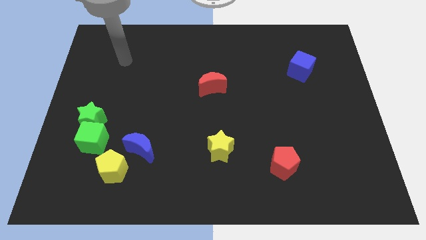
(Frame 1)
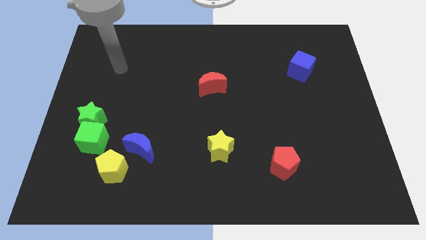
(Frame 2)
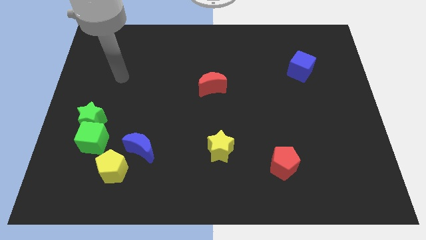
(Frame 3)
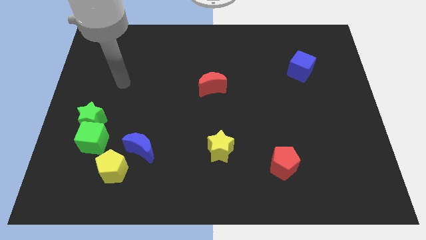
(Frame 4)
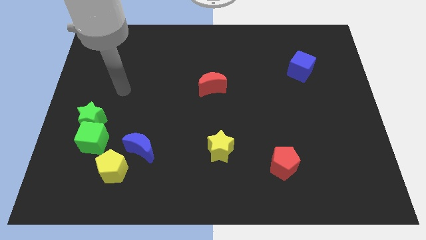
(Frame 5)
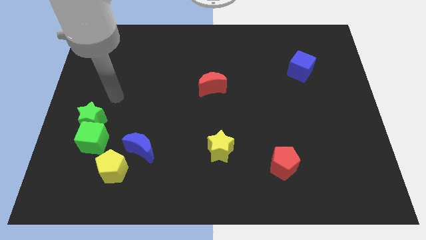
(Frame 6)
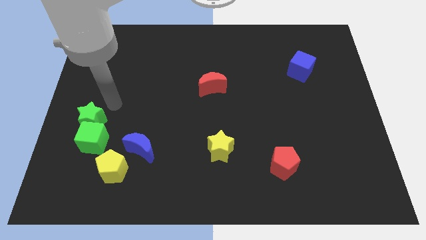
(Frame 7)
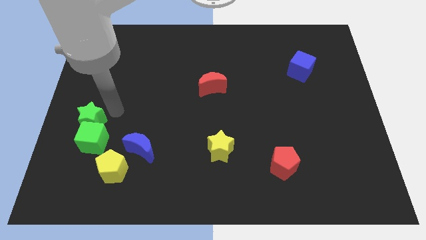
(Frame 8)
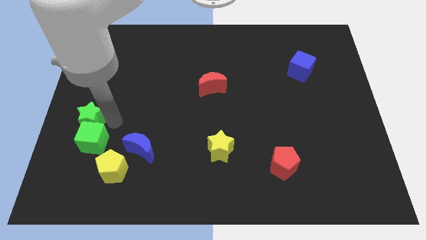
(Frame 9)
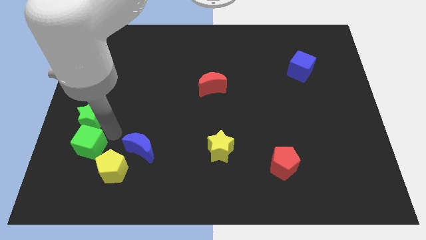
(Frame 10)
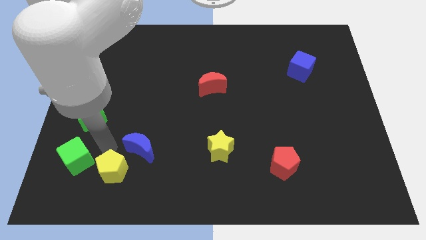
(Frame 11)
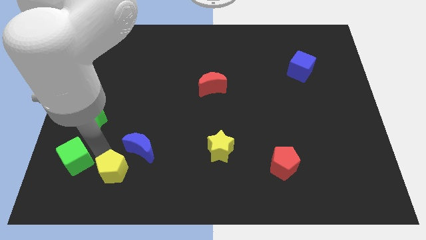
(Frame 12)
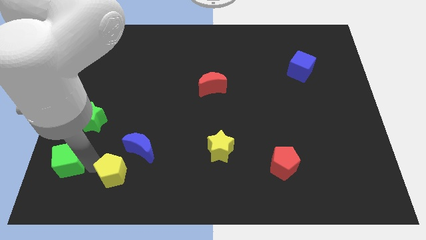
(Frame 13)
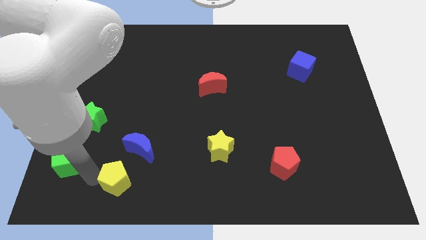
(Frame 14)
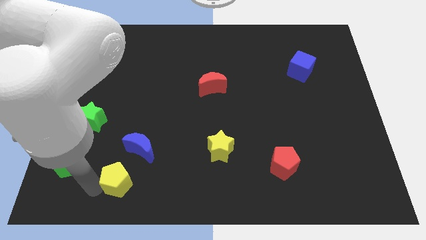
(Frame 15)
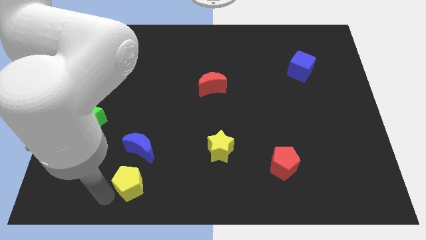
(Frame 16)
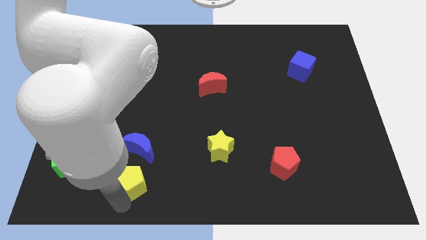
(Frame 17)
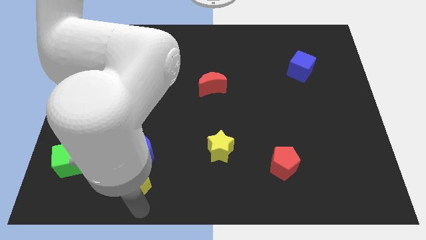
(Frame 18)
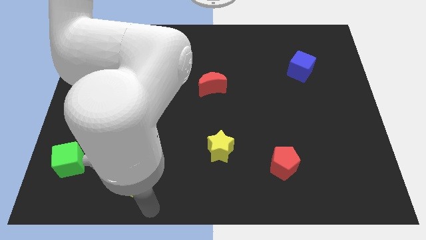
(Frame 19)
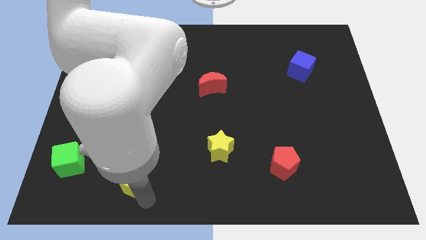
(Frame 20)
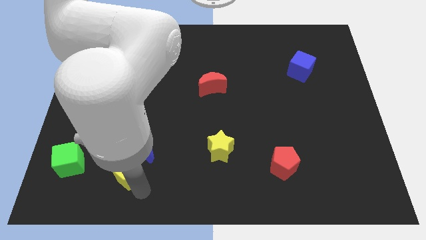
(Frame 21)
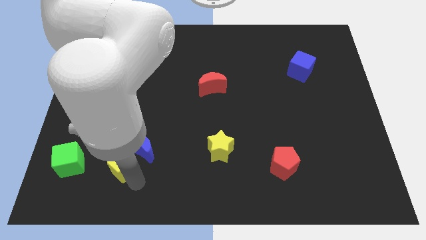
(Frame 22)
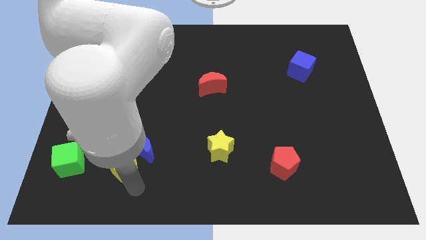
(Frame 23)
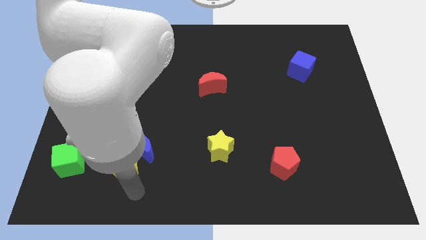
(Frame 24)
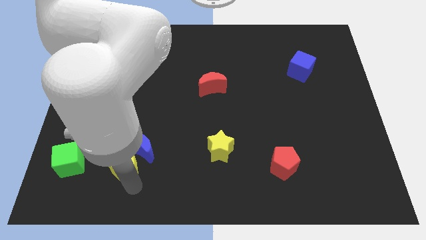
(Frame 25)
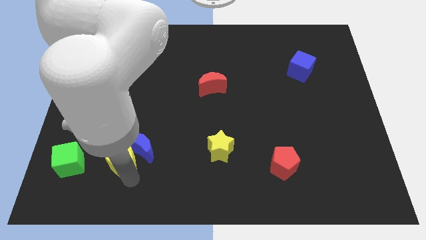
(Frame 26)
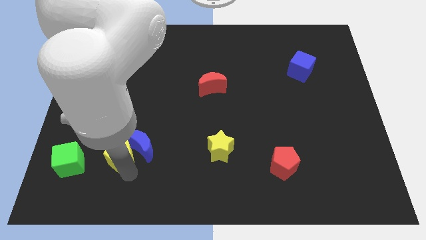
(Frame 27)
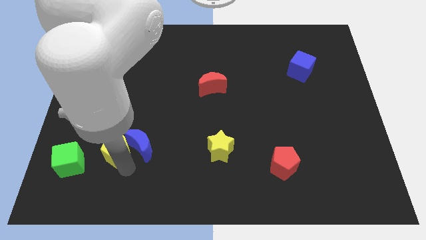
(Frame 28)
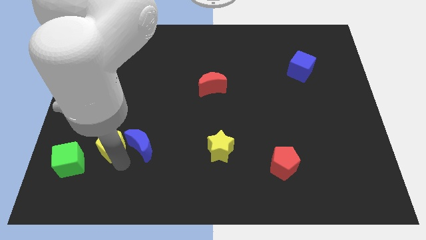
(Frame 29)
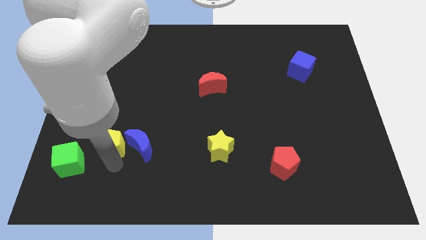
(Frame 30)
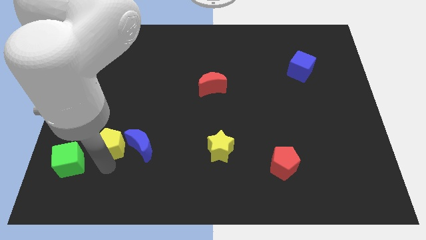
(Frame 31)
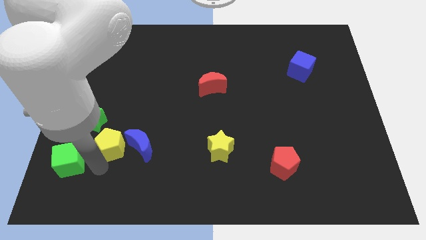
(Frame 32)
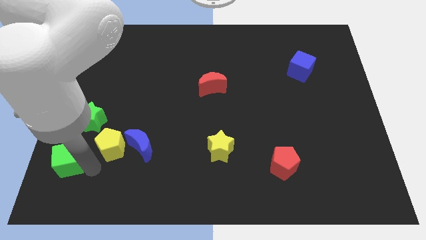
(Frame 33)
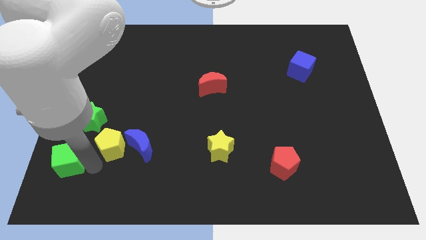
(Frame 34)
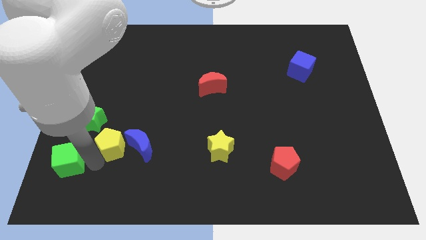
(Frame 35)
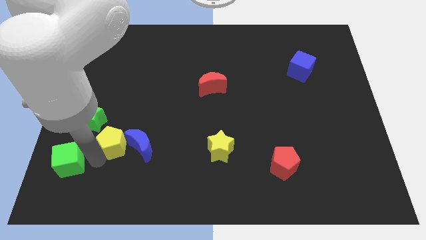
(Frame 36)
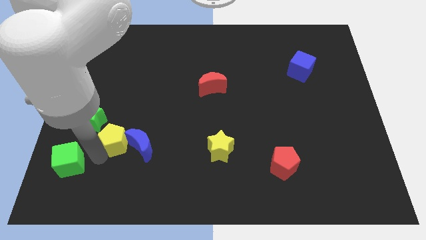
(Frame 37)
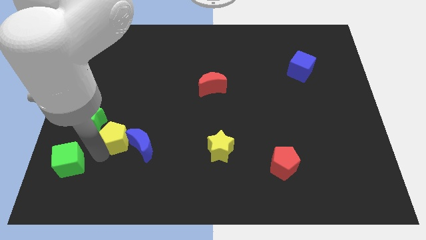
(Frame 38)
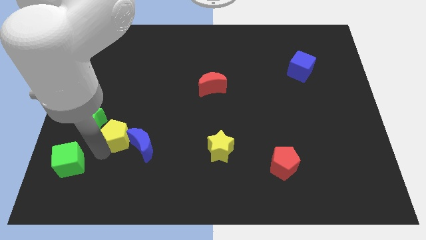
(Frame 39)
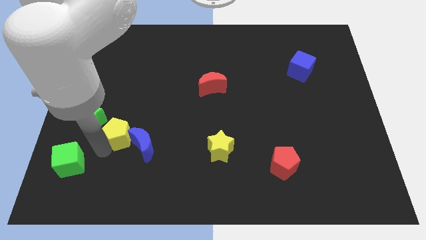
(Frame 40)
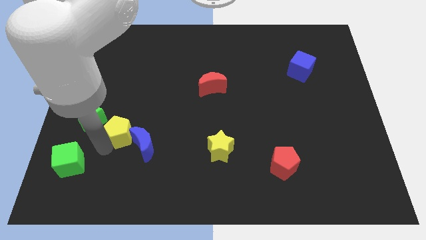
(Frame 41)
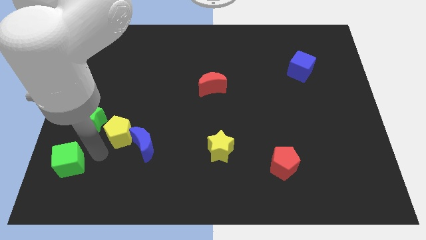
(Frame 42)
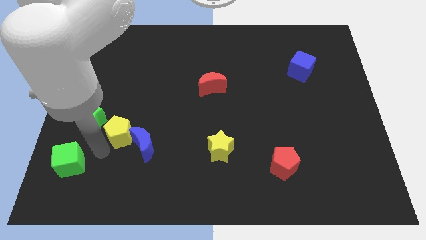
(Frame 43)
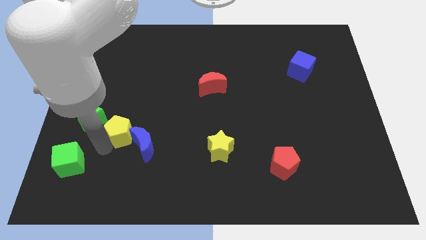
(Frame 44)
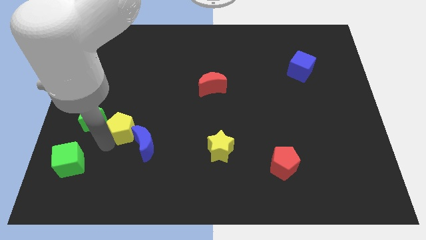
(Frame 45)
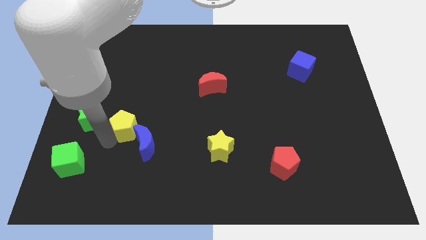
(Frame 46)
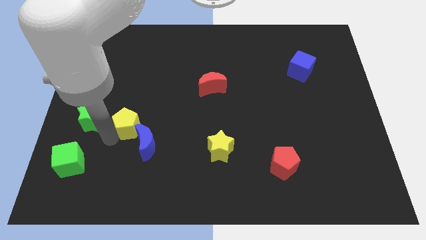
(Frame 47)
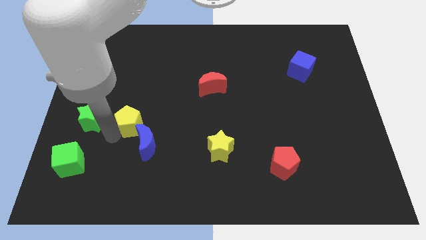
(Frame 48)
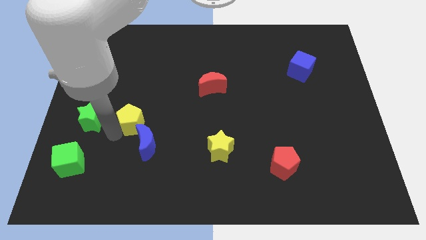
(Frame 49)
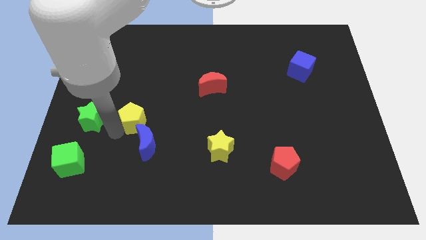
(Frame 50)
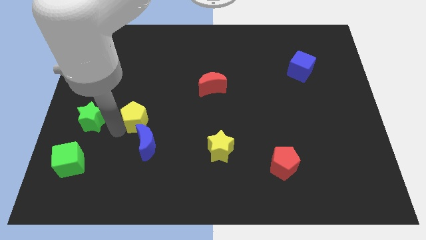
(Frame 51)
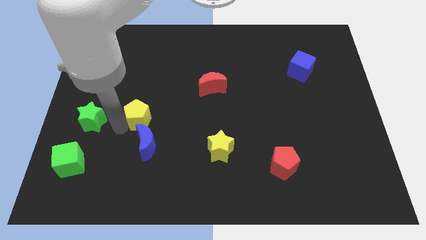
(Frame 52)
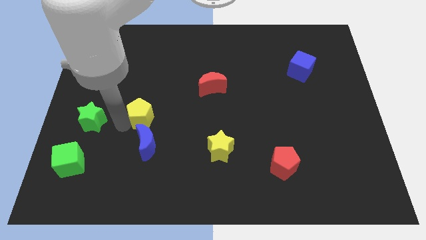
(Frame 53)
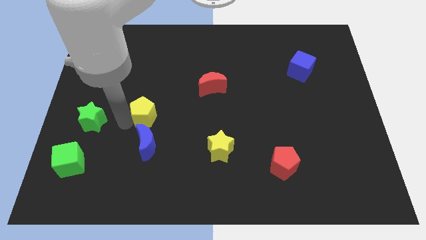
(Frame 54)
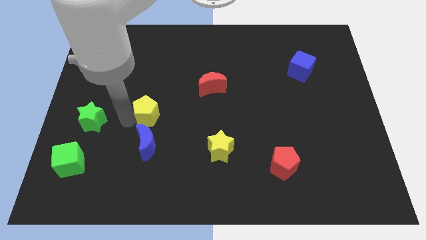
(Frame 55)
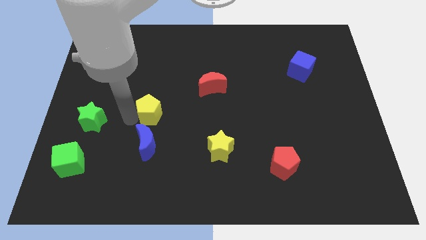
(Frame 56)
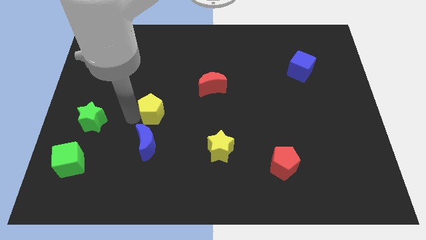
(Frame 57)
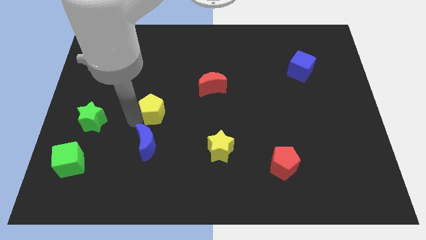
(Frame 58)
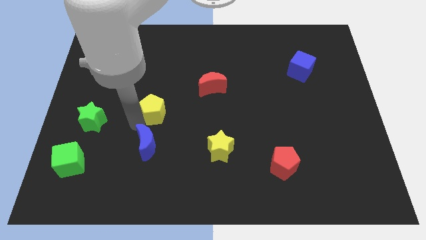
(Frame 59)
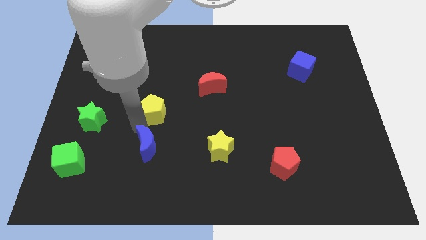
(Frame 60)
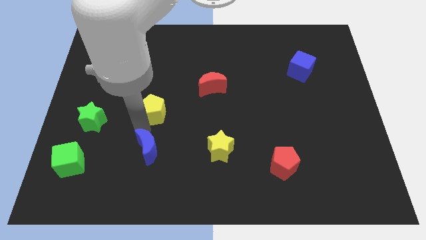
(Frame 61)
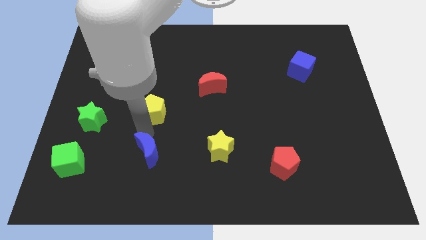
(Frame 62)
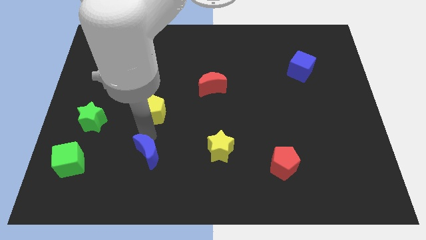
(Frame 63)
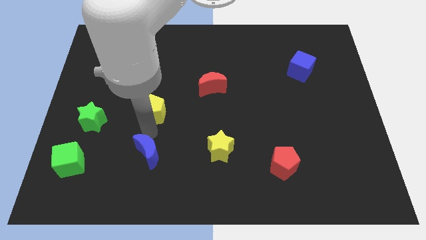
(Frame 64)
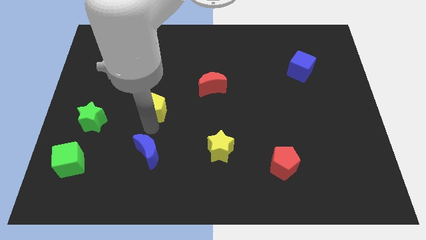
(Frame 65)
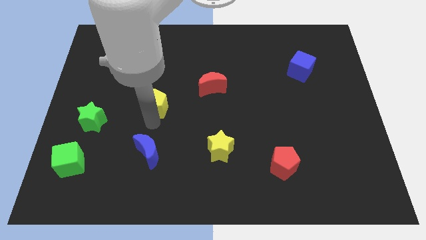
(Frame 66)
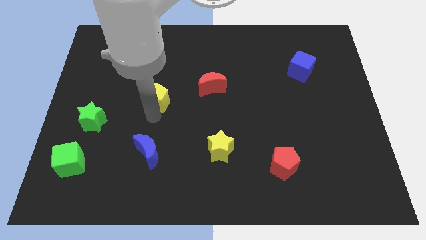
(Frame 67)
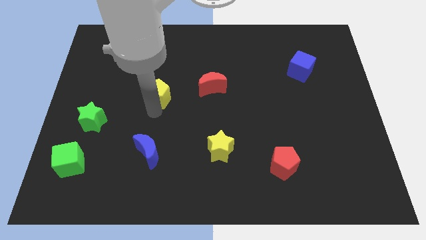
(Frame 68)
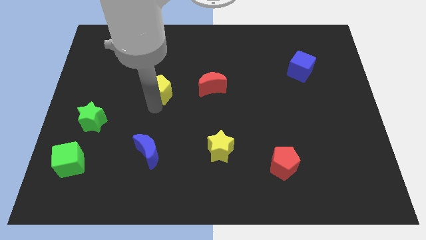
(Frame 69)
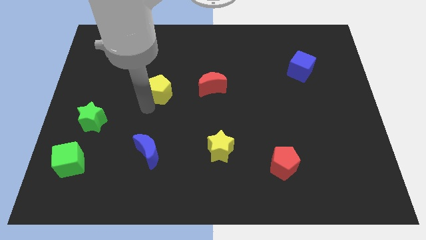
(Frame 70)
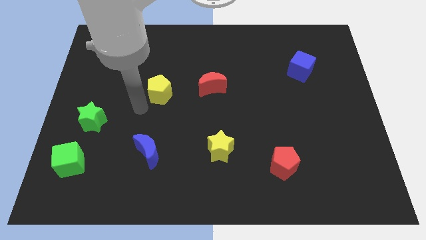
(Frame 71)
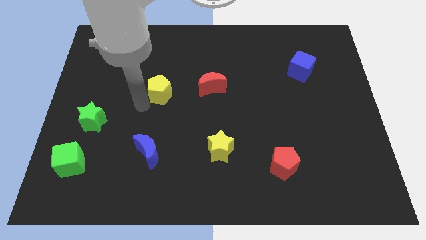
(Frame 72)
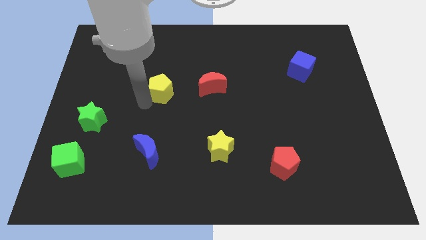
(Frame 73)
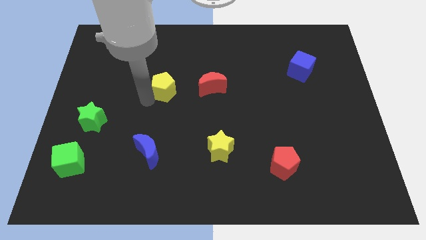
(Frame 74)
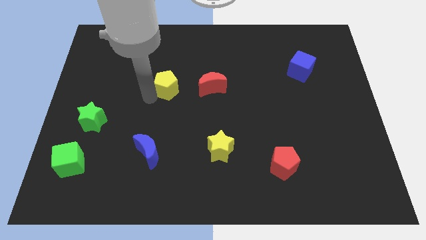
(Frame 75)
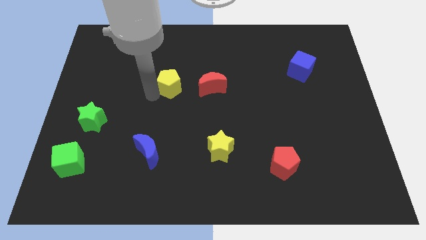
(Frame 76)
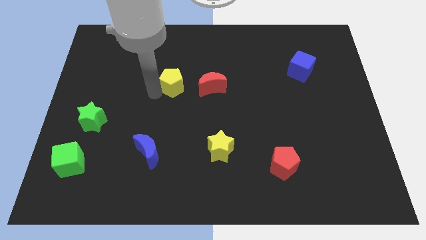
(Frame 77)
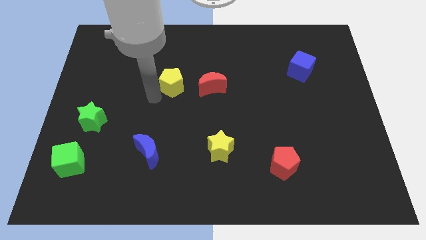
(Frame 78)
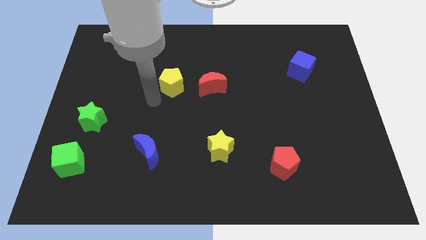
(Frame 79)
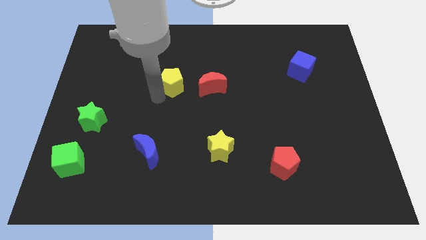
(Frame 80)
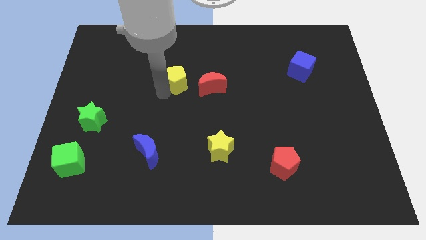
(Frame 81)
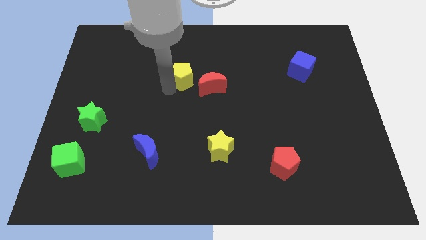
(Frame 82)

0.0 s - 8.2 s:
move the yellow pentagon diagonally up and to the left of the red moon
